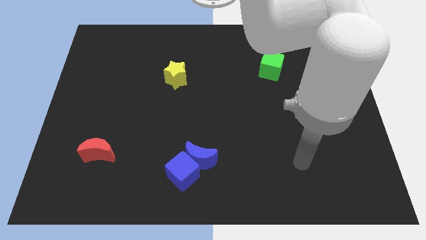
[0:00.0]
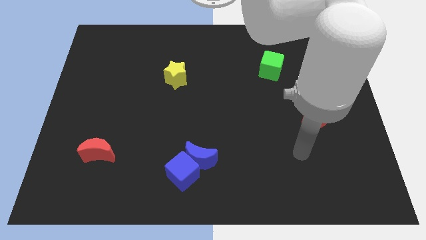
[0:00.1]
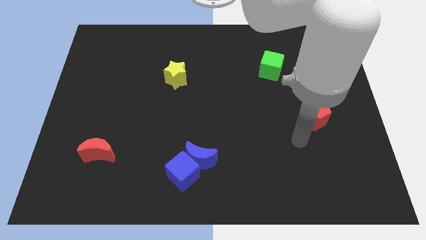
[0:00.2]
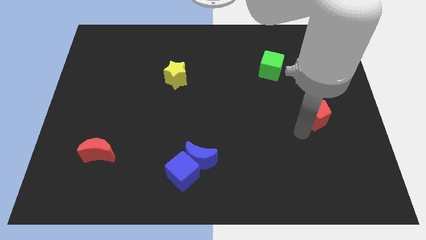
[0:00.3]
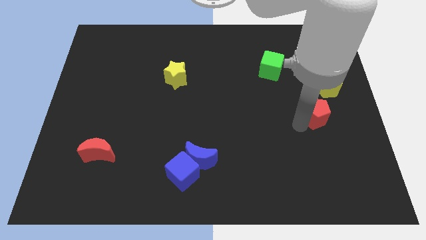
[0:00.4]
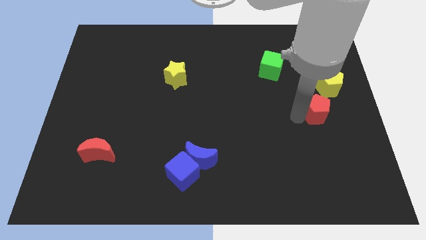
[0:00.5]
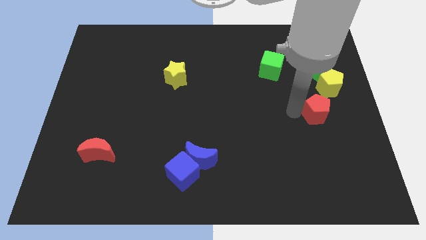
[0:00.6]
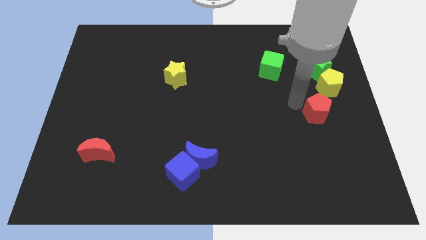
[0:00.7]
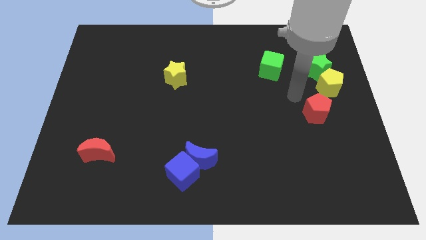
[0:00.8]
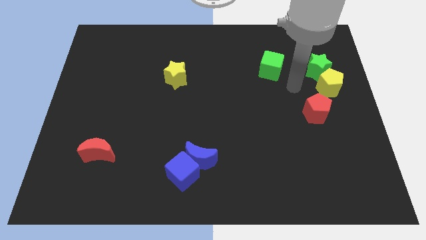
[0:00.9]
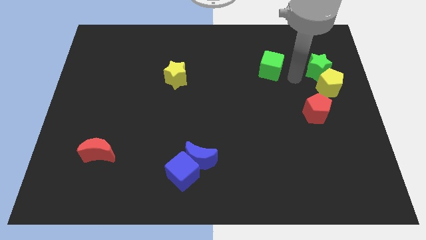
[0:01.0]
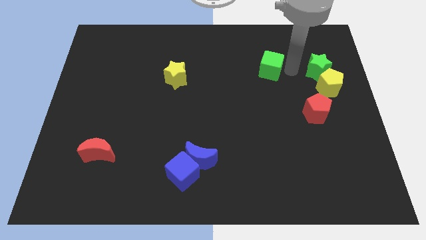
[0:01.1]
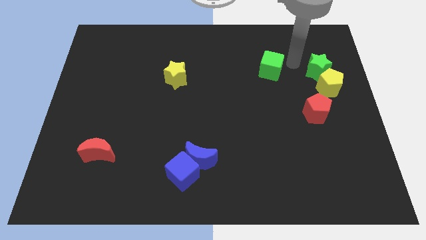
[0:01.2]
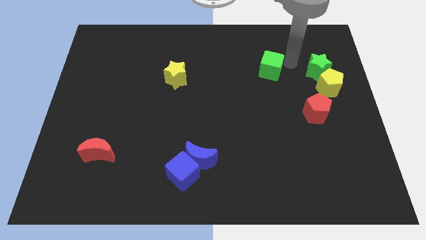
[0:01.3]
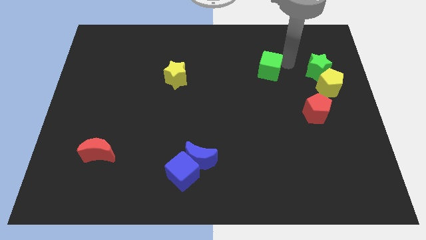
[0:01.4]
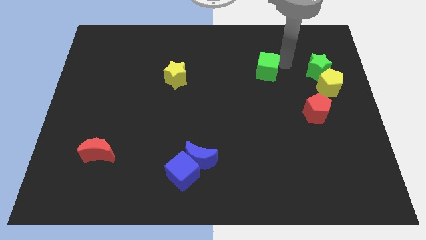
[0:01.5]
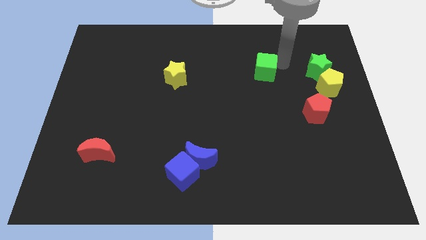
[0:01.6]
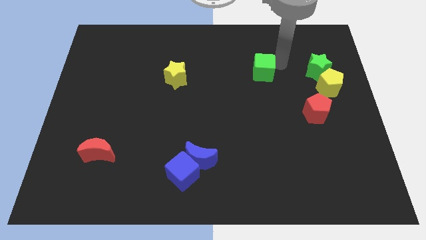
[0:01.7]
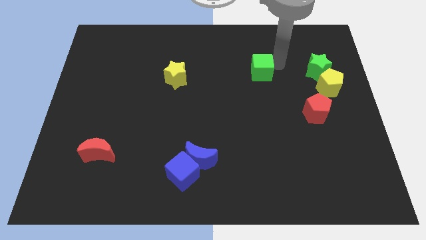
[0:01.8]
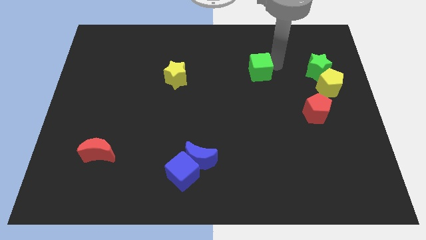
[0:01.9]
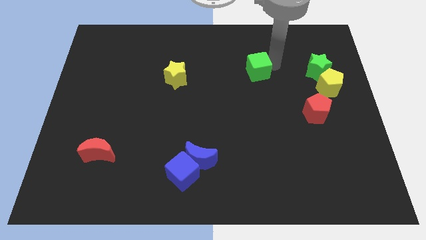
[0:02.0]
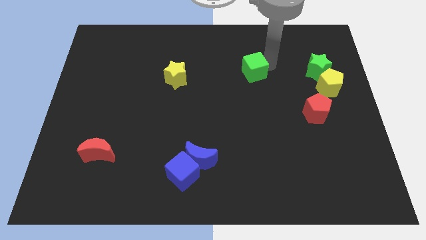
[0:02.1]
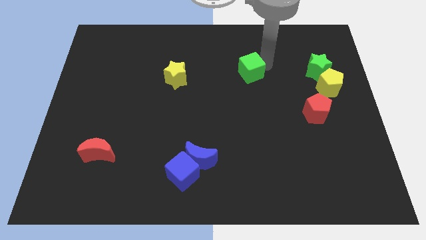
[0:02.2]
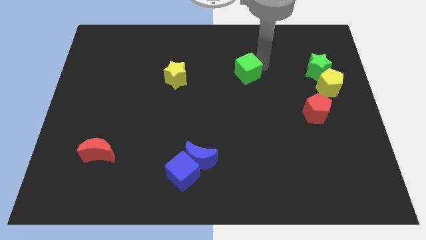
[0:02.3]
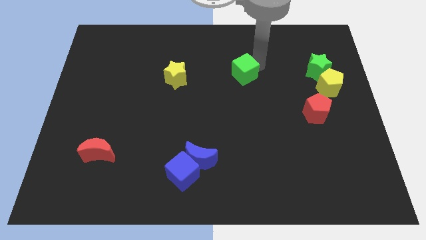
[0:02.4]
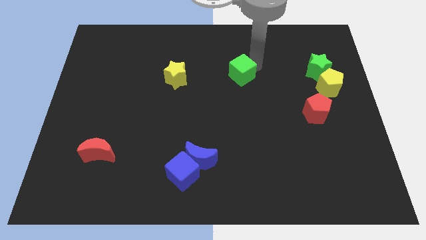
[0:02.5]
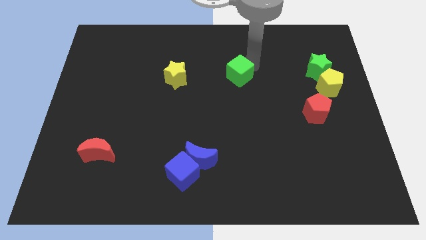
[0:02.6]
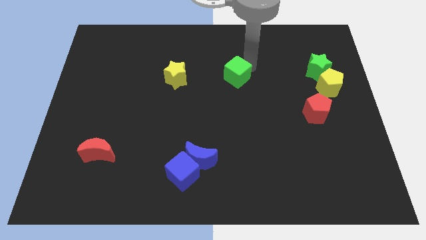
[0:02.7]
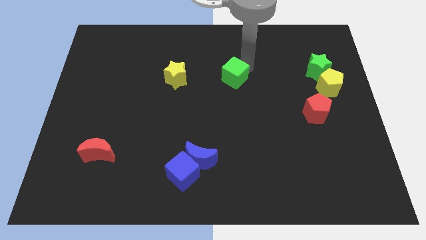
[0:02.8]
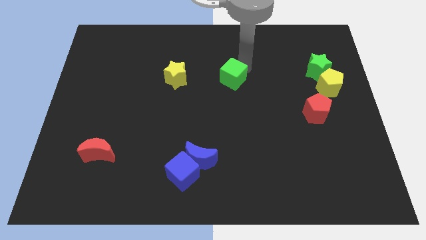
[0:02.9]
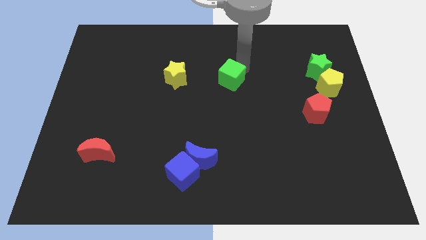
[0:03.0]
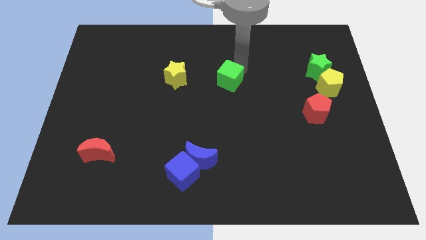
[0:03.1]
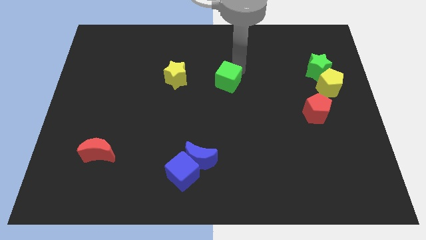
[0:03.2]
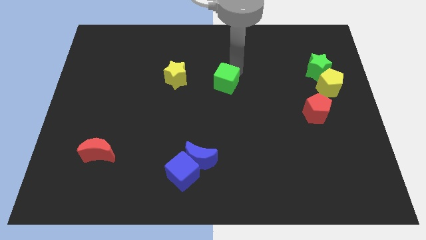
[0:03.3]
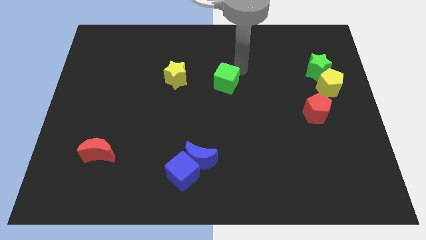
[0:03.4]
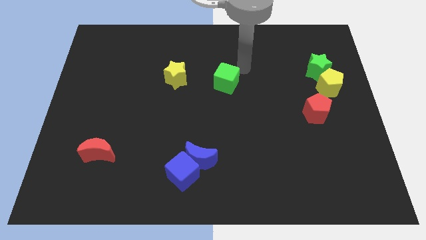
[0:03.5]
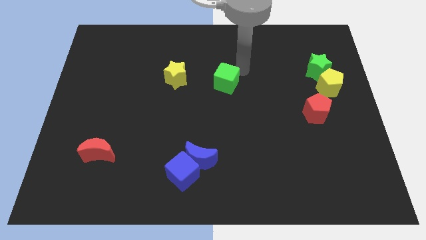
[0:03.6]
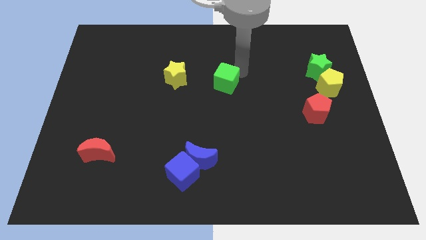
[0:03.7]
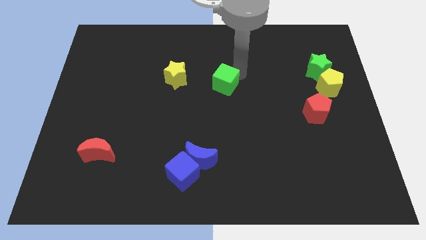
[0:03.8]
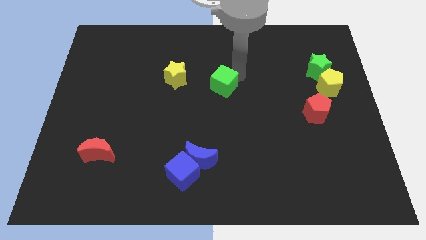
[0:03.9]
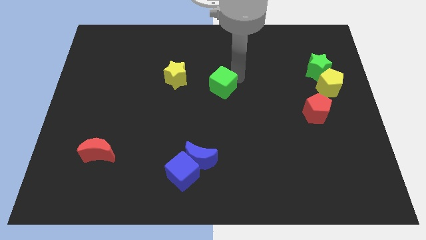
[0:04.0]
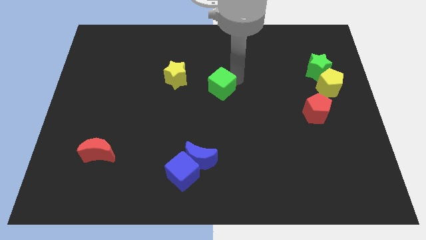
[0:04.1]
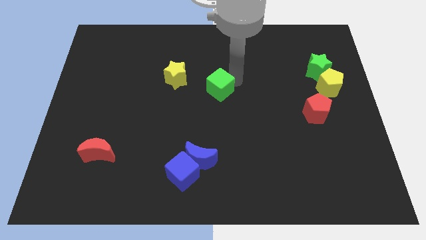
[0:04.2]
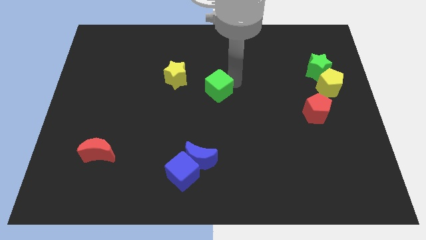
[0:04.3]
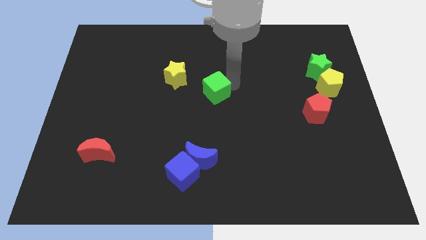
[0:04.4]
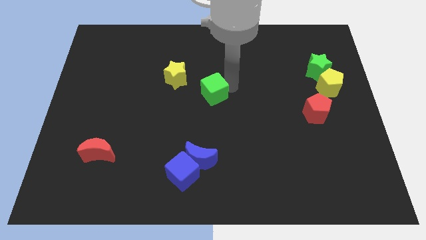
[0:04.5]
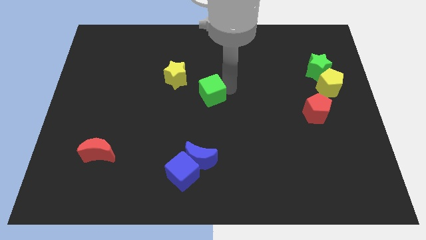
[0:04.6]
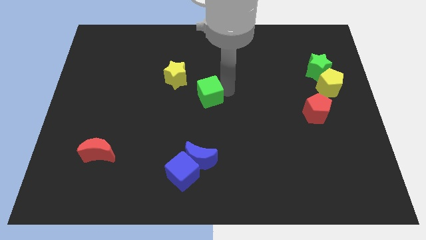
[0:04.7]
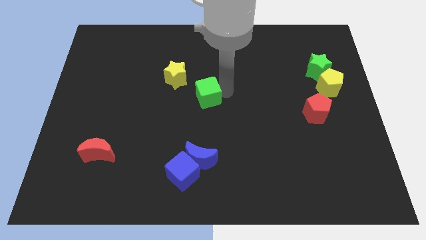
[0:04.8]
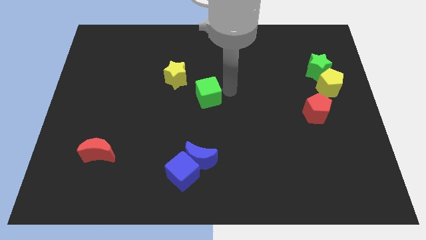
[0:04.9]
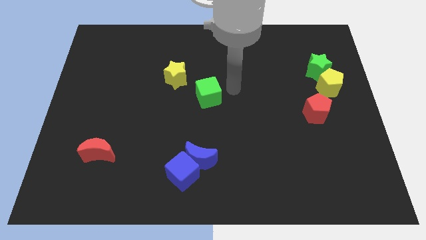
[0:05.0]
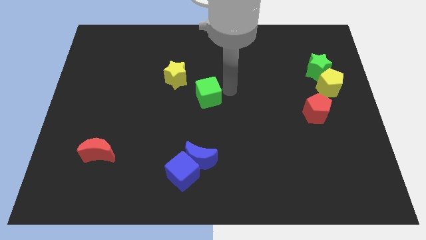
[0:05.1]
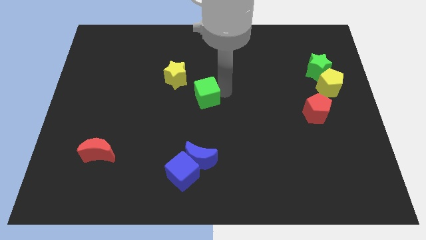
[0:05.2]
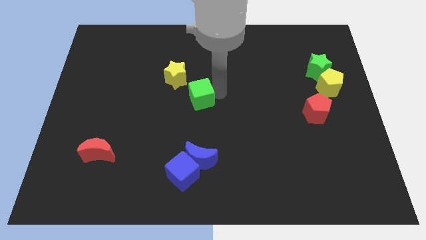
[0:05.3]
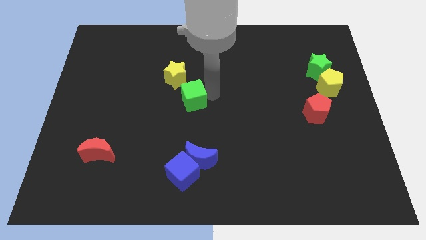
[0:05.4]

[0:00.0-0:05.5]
push the green cube to the bottom side of the yellow star

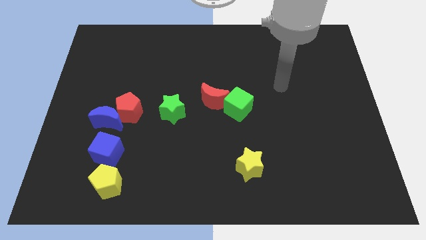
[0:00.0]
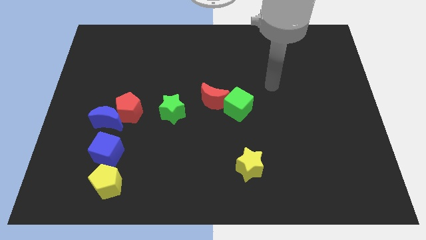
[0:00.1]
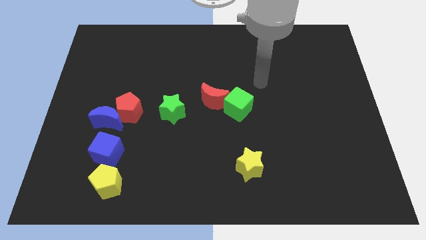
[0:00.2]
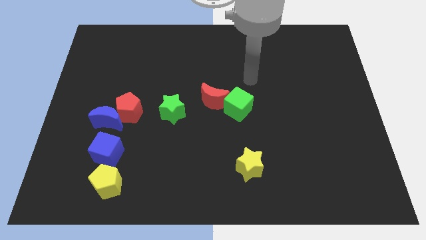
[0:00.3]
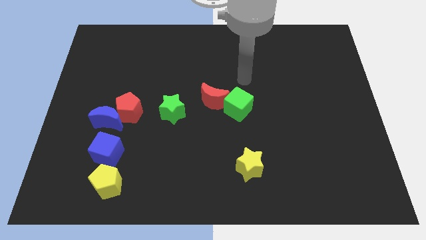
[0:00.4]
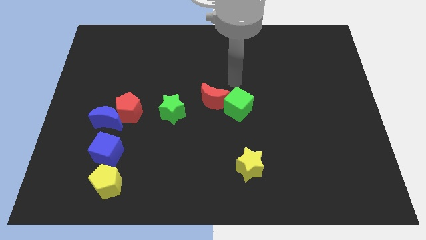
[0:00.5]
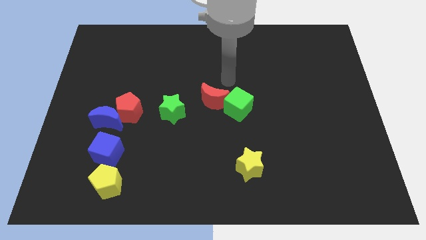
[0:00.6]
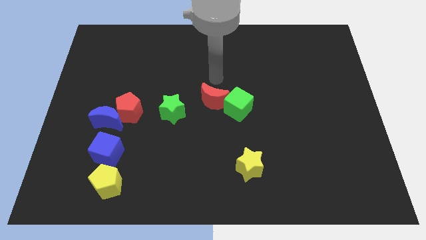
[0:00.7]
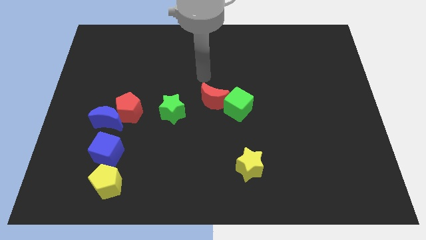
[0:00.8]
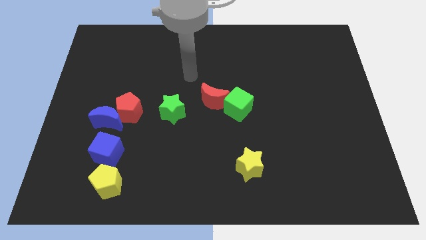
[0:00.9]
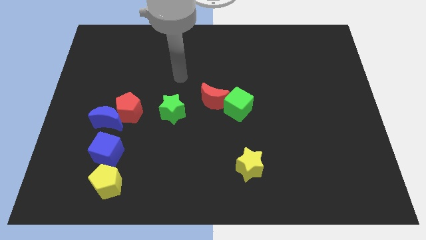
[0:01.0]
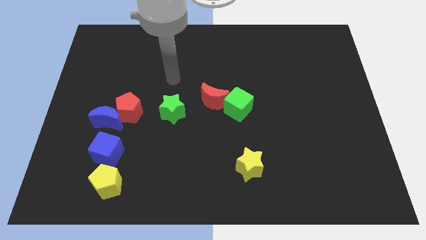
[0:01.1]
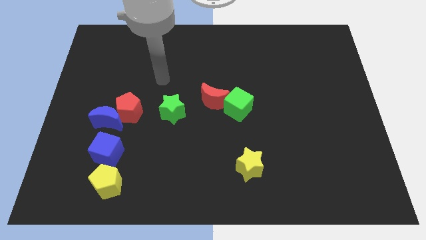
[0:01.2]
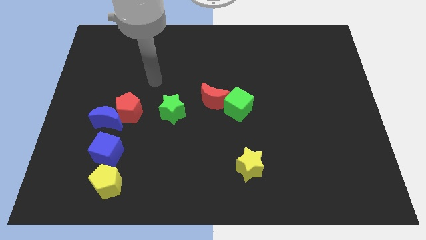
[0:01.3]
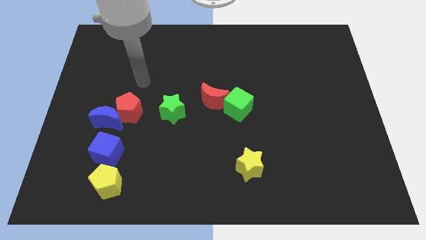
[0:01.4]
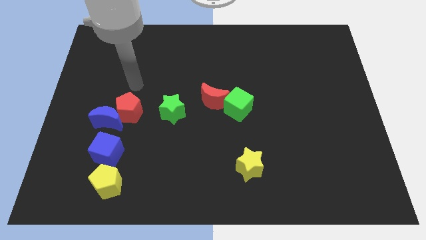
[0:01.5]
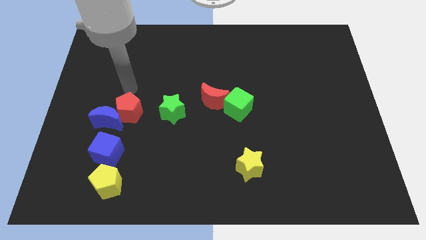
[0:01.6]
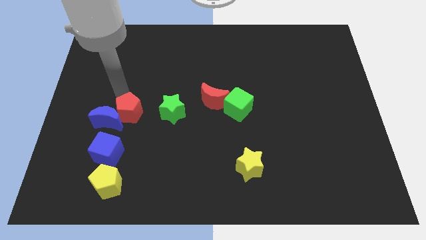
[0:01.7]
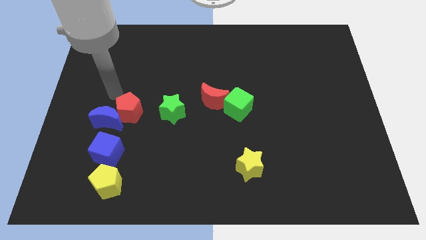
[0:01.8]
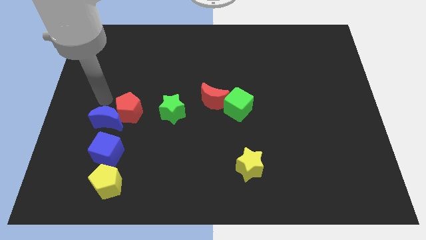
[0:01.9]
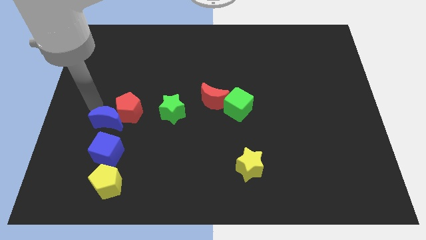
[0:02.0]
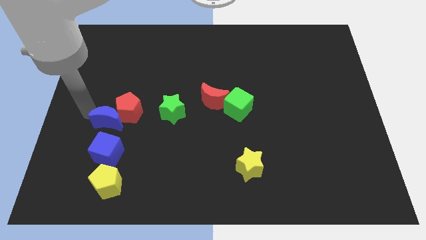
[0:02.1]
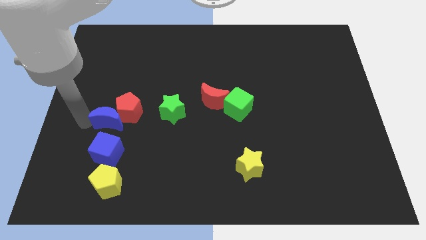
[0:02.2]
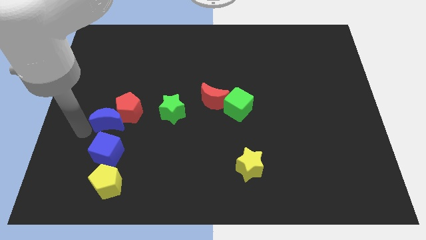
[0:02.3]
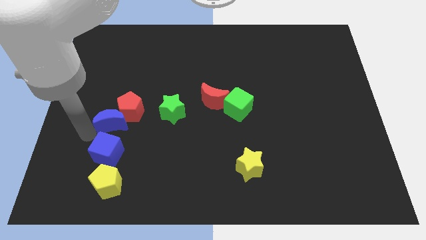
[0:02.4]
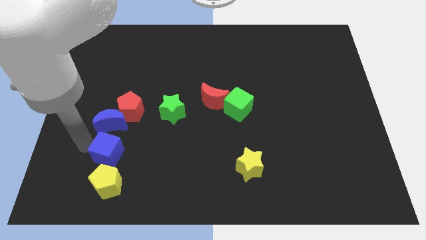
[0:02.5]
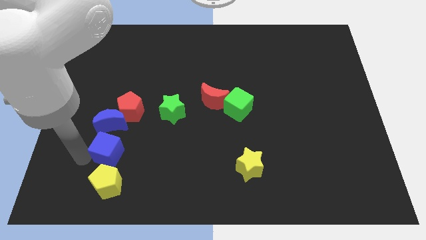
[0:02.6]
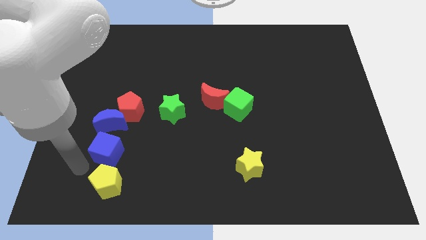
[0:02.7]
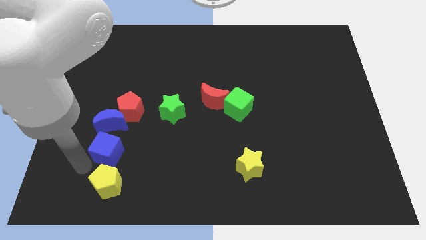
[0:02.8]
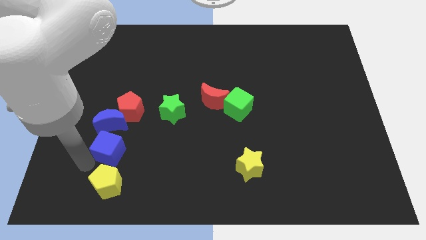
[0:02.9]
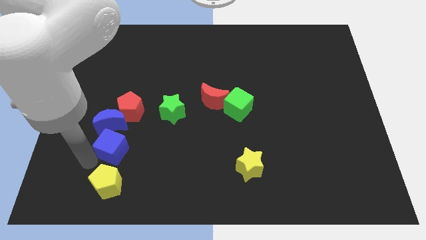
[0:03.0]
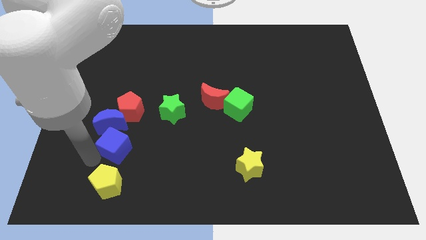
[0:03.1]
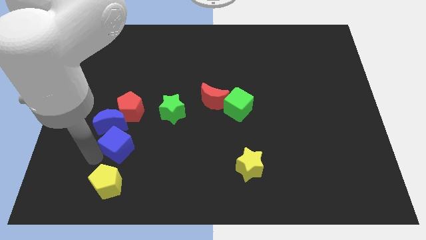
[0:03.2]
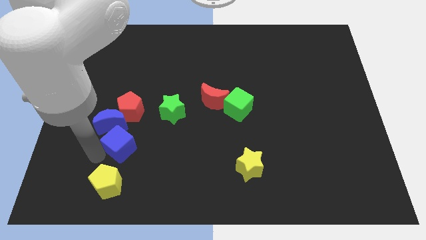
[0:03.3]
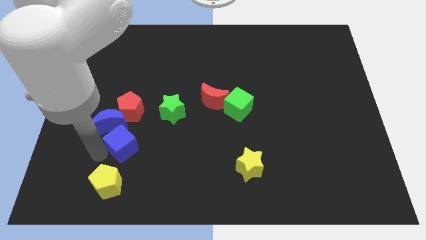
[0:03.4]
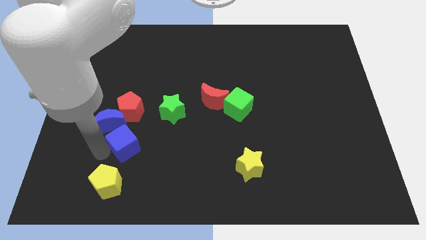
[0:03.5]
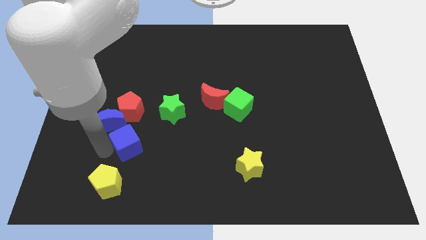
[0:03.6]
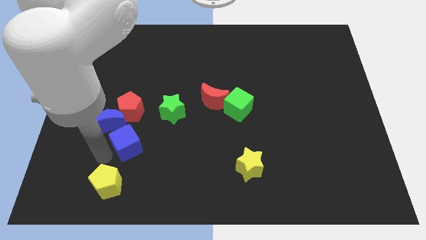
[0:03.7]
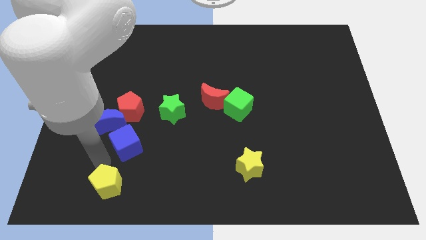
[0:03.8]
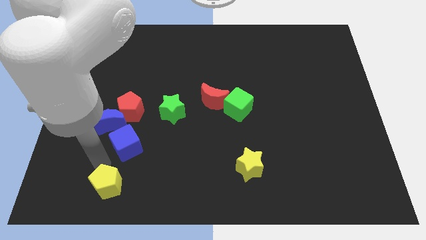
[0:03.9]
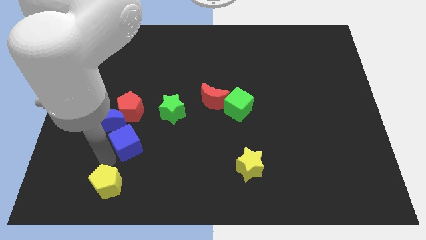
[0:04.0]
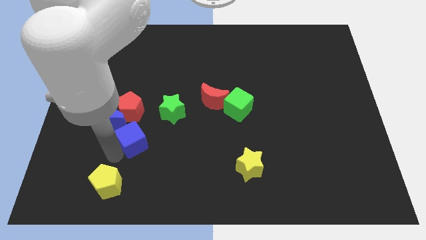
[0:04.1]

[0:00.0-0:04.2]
put the blue cube to the bottom right of the red pentagon
